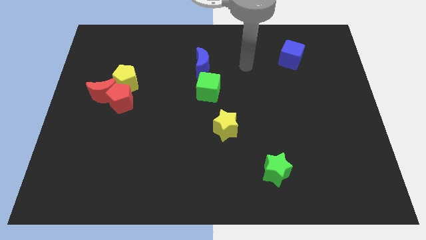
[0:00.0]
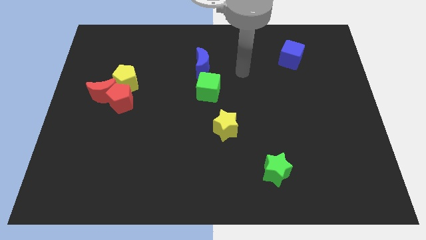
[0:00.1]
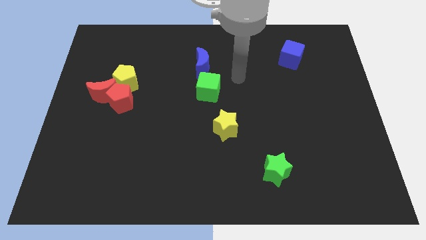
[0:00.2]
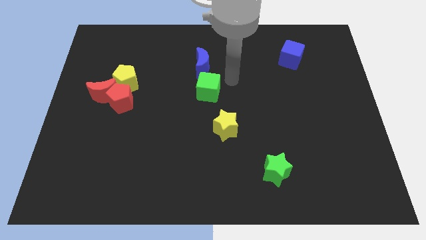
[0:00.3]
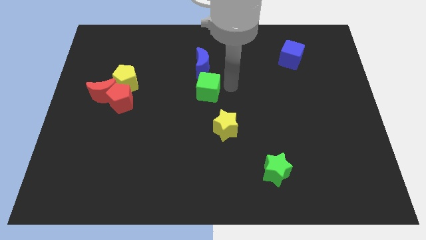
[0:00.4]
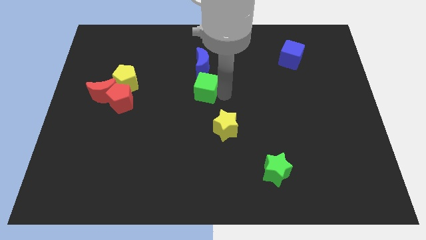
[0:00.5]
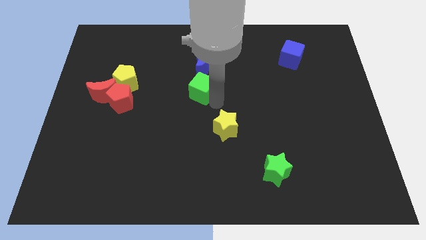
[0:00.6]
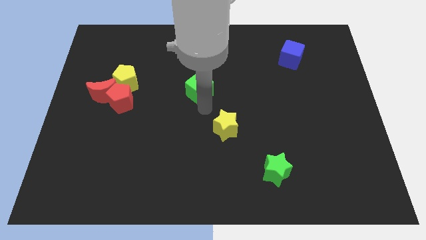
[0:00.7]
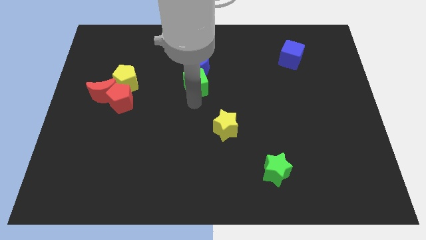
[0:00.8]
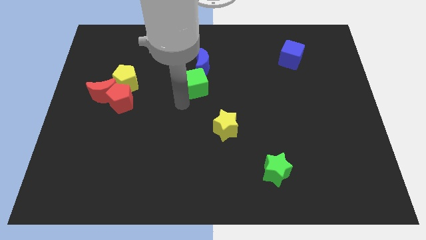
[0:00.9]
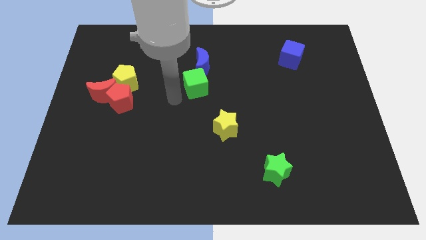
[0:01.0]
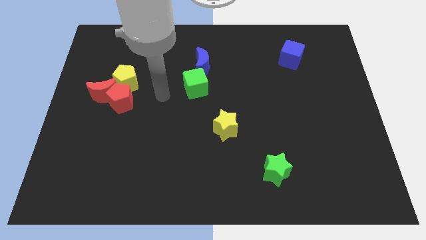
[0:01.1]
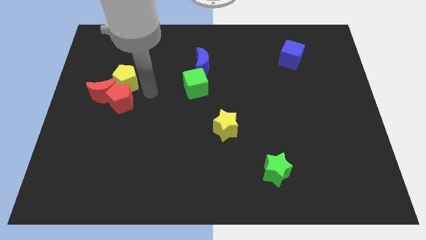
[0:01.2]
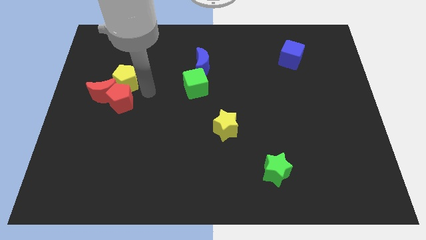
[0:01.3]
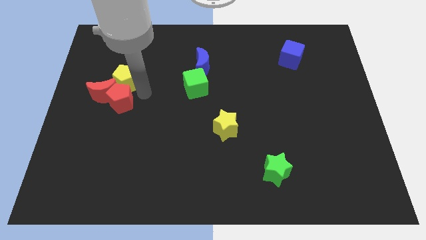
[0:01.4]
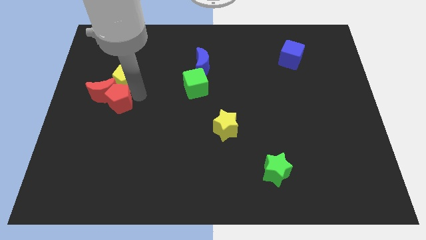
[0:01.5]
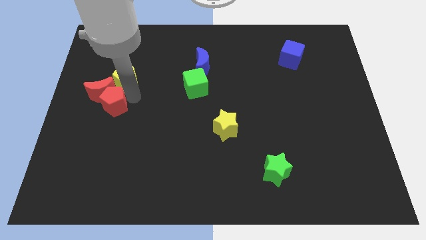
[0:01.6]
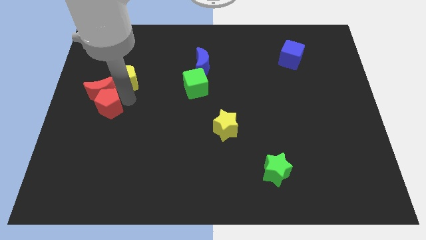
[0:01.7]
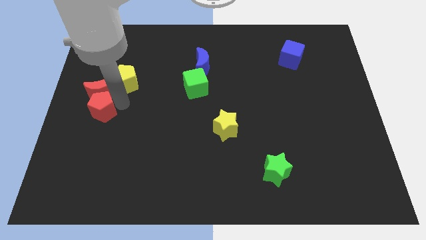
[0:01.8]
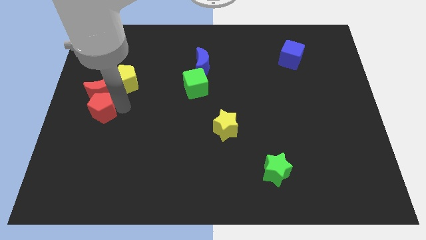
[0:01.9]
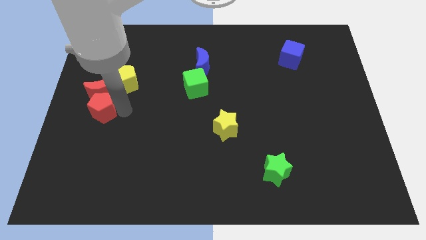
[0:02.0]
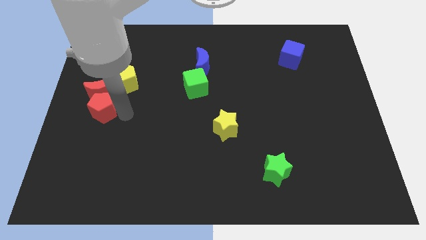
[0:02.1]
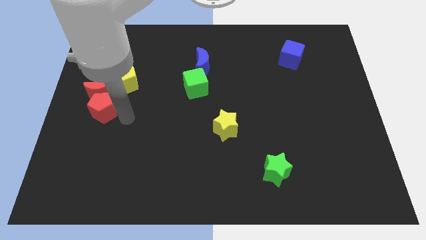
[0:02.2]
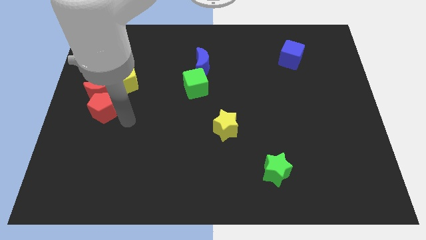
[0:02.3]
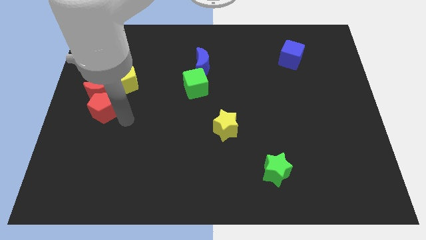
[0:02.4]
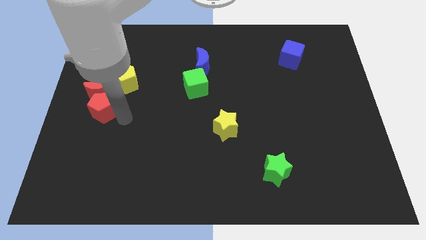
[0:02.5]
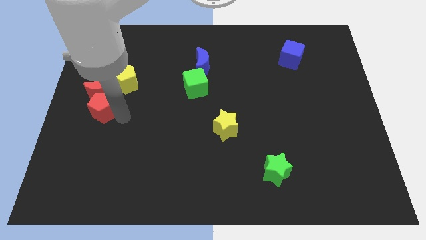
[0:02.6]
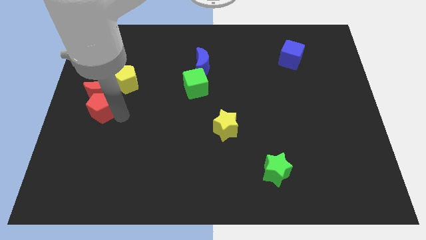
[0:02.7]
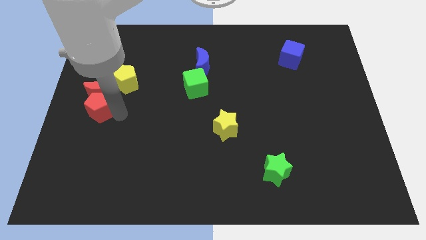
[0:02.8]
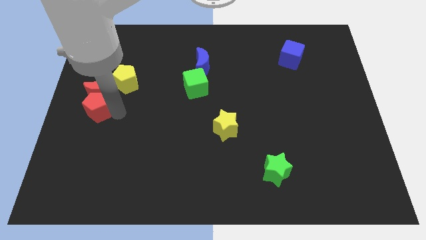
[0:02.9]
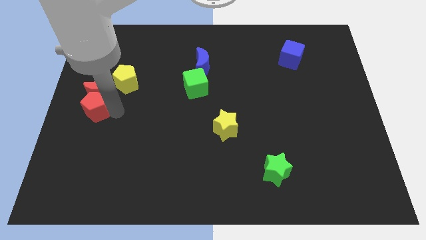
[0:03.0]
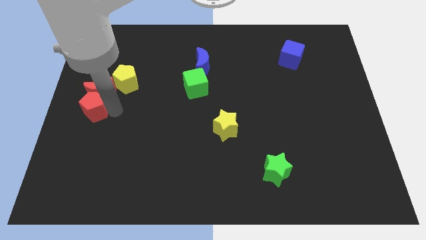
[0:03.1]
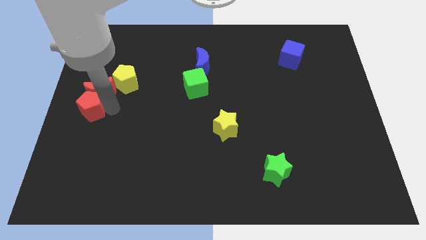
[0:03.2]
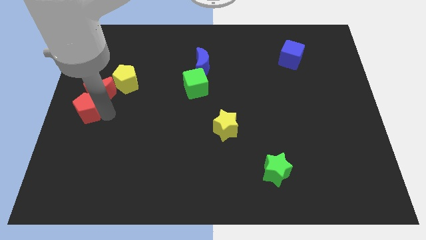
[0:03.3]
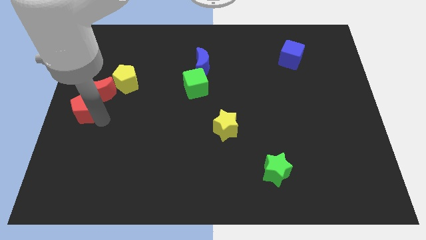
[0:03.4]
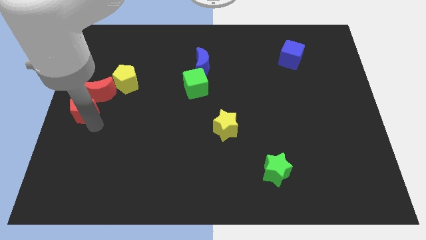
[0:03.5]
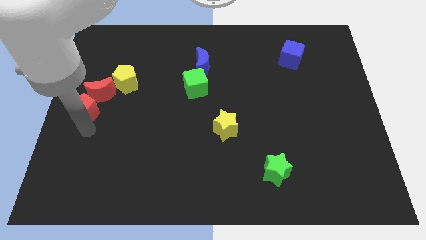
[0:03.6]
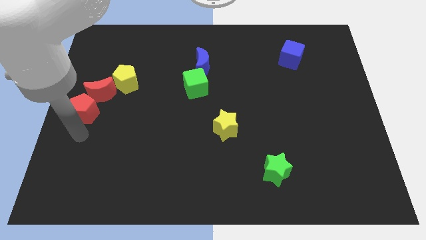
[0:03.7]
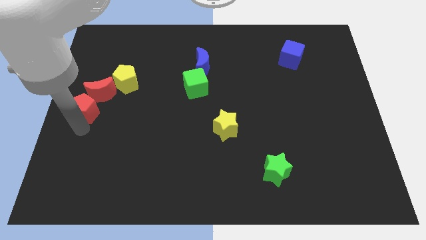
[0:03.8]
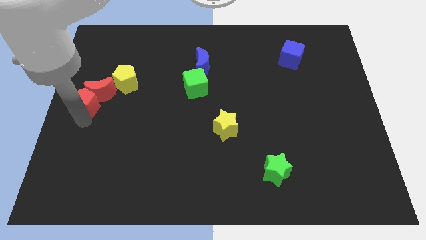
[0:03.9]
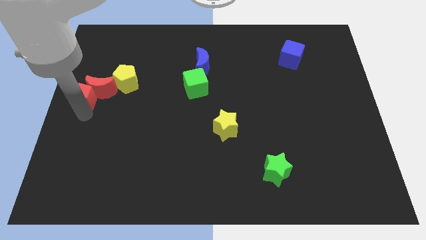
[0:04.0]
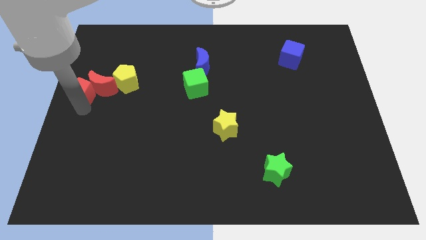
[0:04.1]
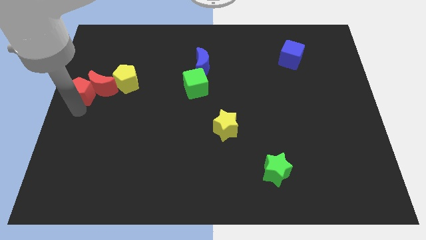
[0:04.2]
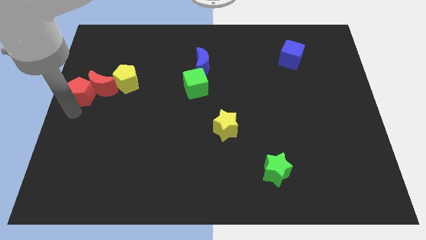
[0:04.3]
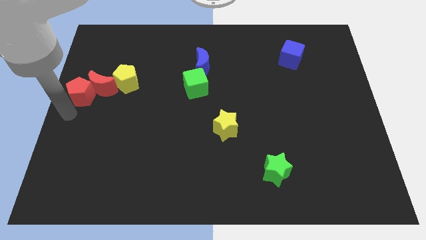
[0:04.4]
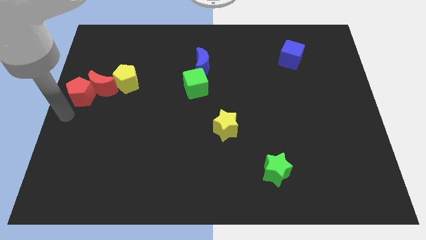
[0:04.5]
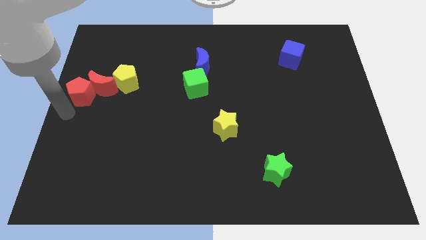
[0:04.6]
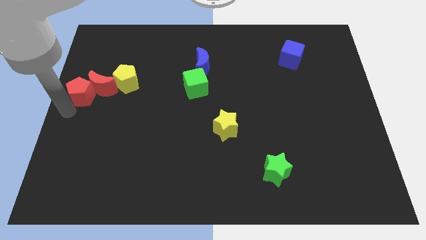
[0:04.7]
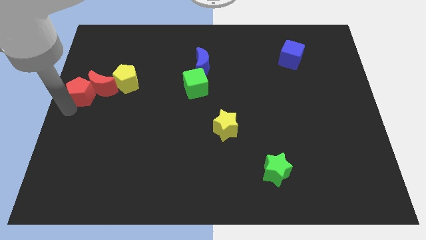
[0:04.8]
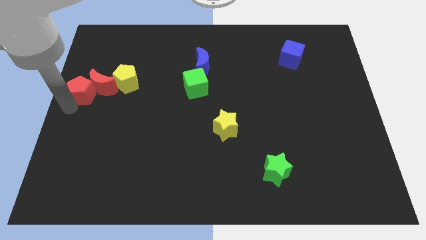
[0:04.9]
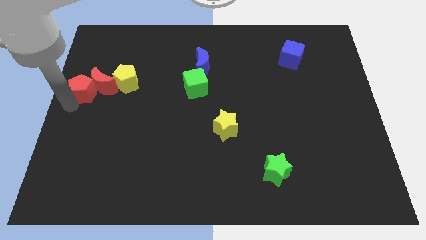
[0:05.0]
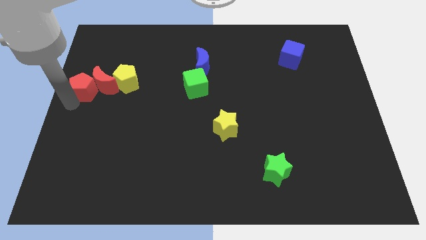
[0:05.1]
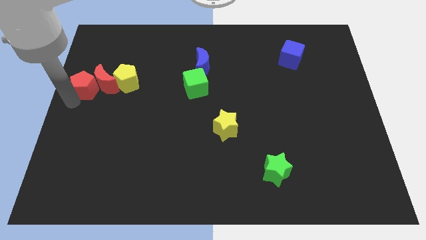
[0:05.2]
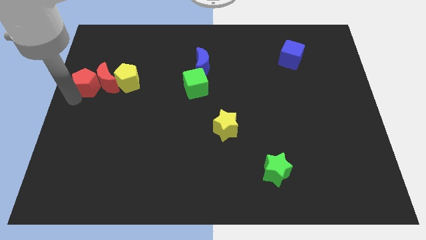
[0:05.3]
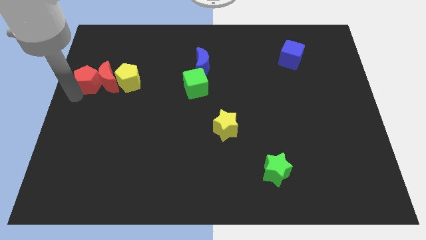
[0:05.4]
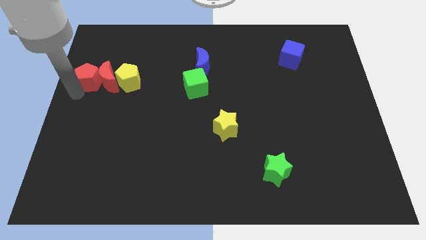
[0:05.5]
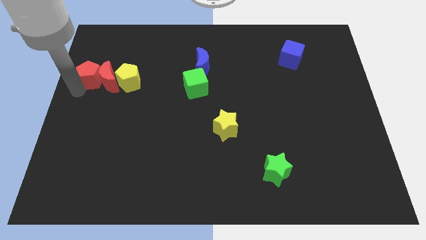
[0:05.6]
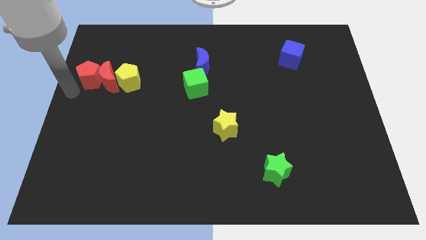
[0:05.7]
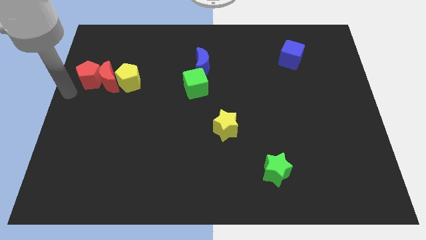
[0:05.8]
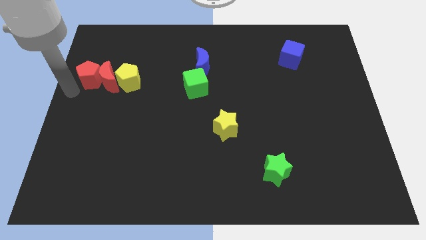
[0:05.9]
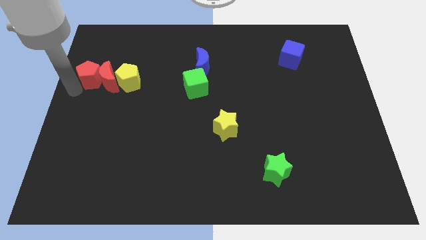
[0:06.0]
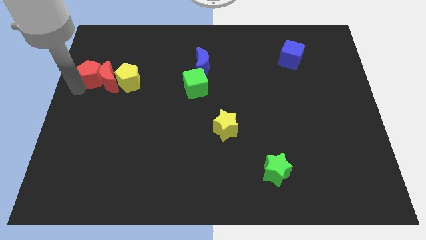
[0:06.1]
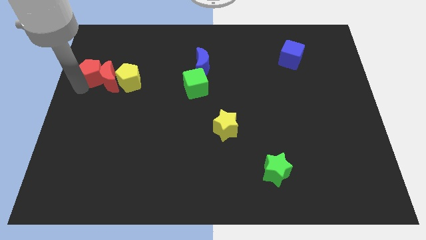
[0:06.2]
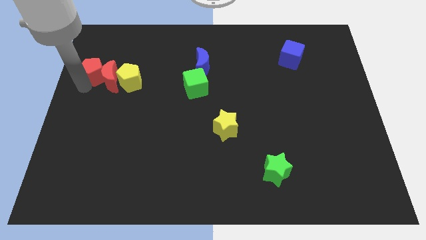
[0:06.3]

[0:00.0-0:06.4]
push the red pentagon diagonally up and to the left of the yellow pentagon

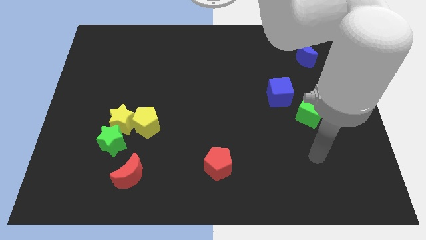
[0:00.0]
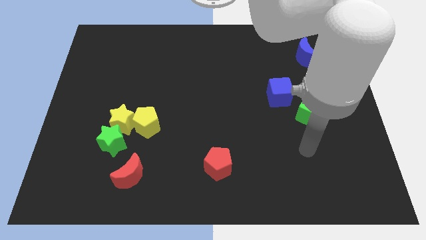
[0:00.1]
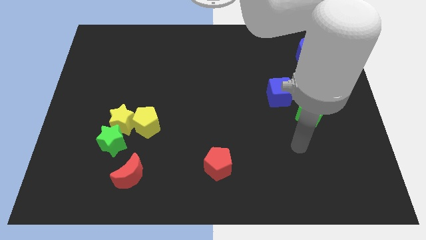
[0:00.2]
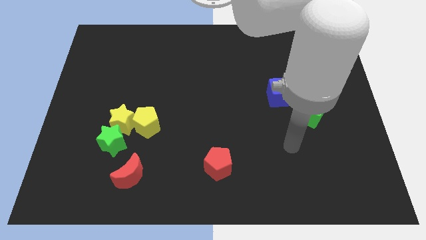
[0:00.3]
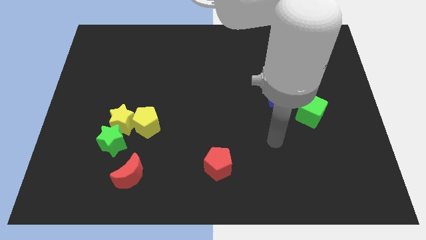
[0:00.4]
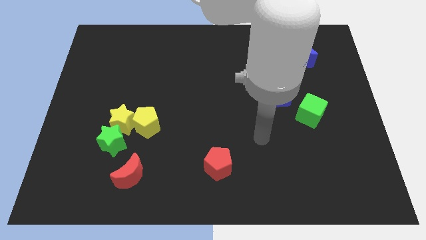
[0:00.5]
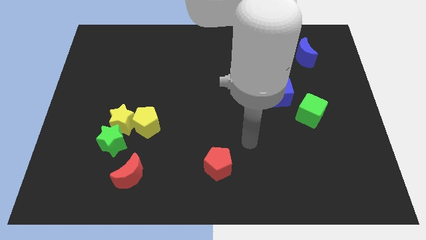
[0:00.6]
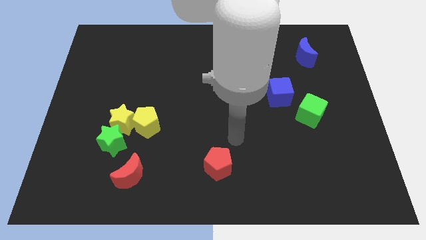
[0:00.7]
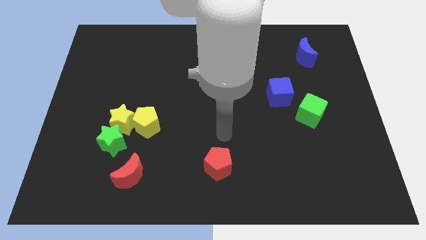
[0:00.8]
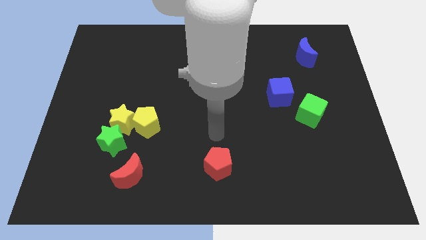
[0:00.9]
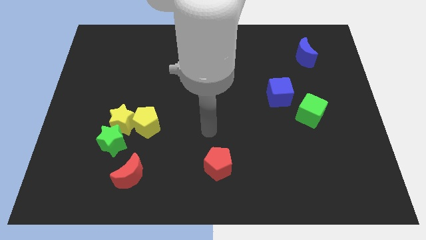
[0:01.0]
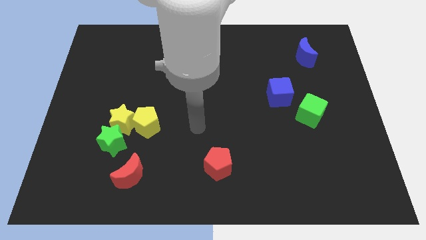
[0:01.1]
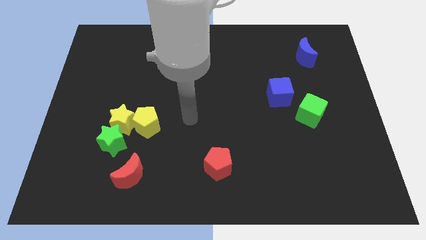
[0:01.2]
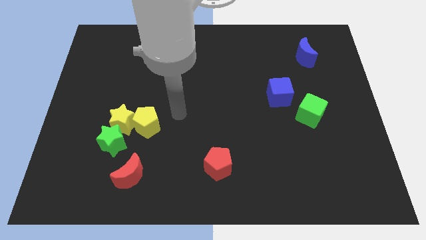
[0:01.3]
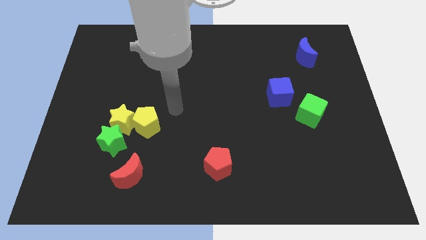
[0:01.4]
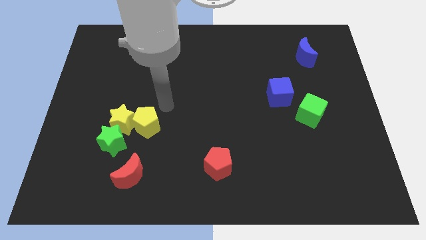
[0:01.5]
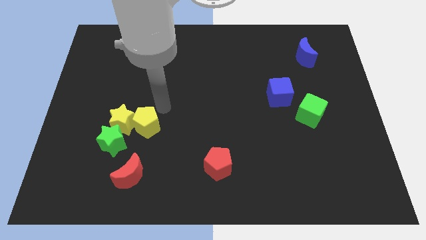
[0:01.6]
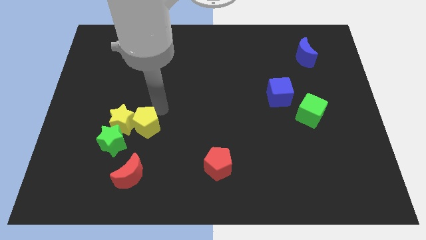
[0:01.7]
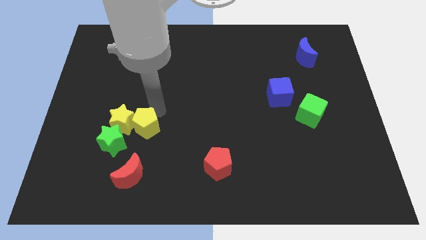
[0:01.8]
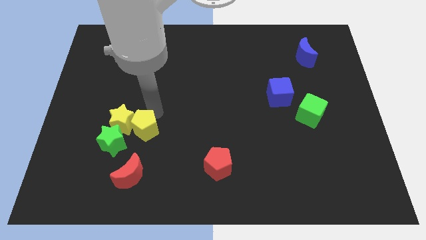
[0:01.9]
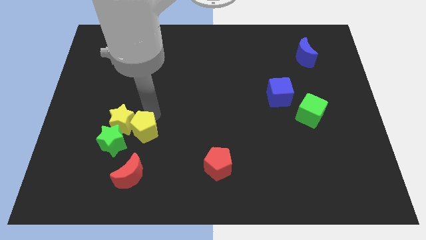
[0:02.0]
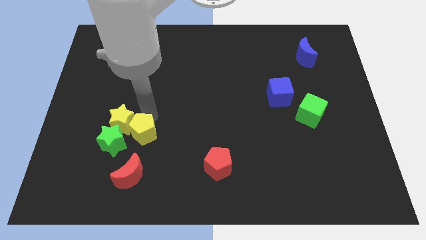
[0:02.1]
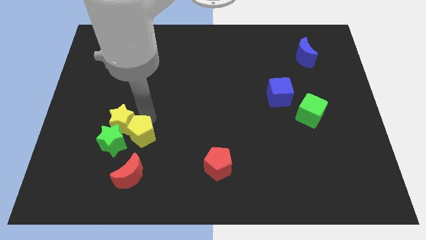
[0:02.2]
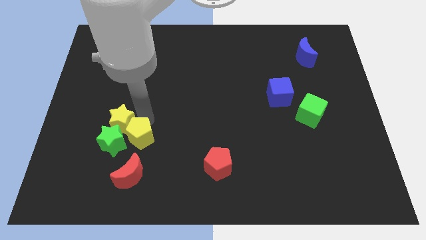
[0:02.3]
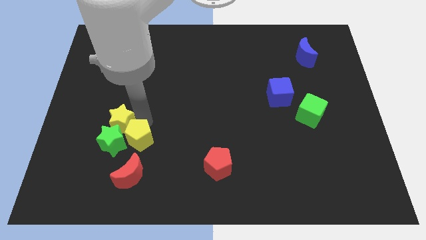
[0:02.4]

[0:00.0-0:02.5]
push the yellow pentagon to the bottom side of the yellow star
